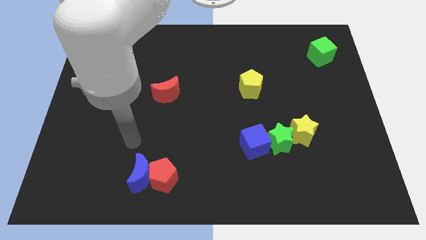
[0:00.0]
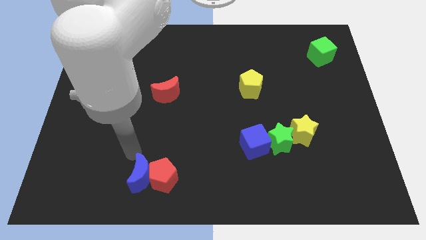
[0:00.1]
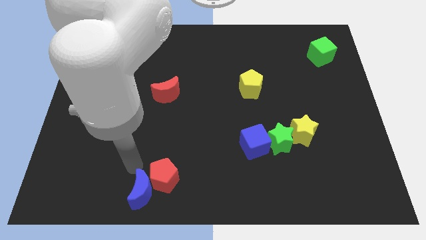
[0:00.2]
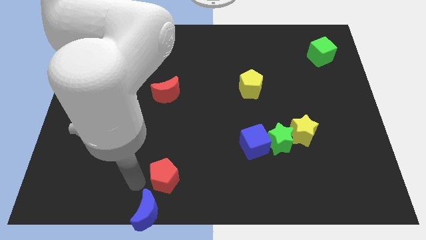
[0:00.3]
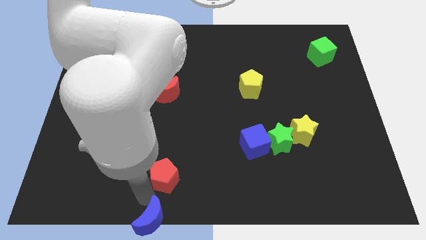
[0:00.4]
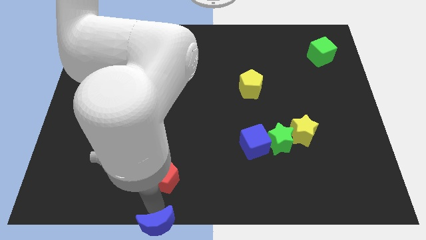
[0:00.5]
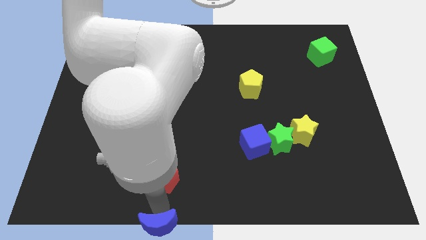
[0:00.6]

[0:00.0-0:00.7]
move the red pentagon away from the blue moon

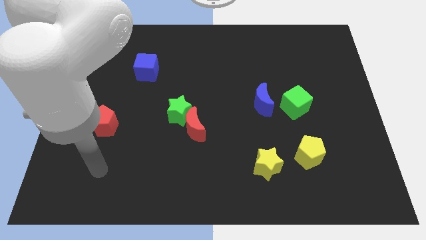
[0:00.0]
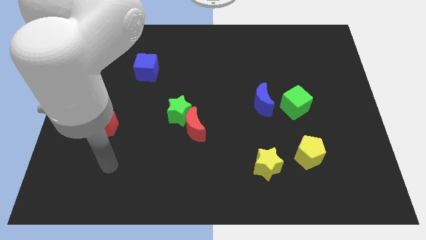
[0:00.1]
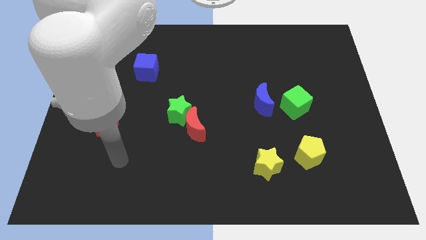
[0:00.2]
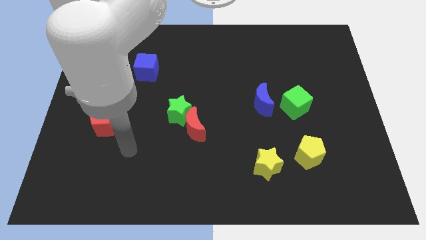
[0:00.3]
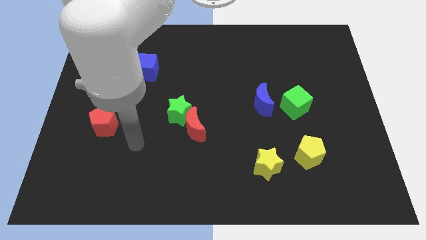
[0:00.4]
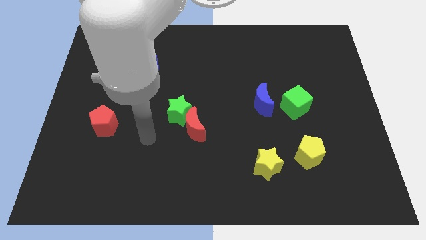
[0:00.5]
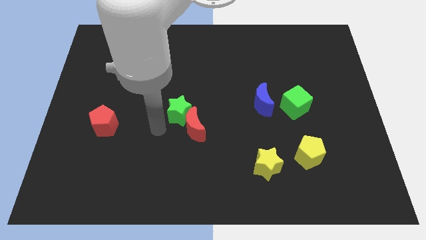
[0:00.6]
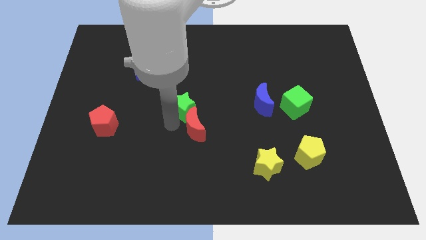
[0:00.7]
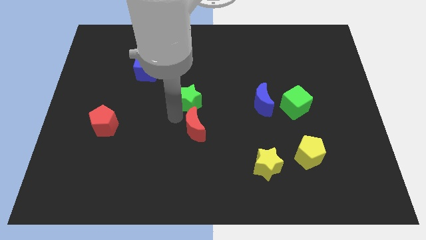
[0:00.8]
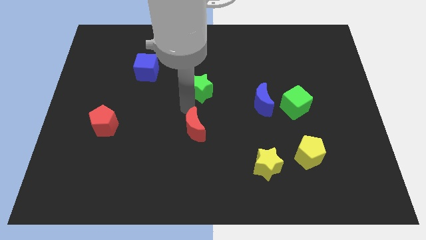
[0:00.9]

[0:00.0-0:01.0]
separate the red moon from the green star

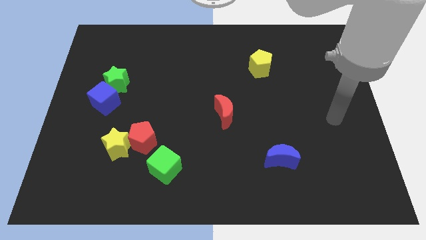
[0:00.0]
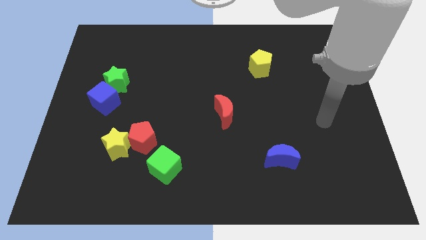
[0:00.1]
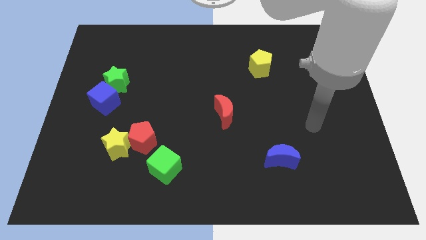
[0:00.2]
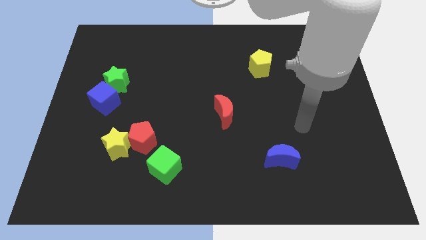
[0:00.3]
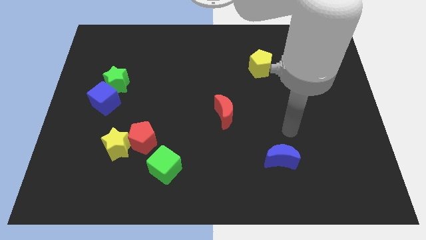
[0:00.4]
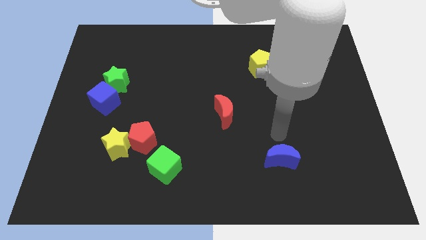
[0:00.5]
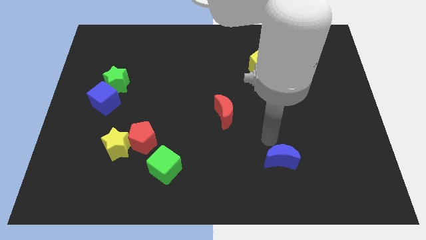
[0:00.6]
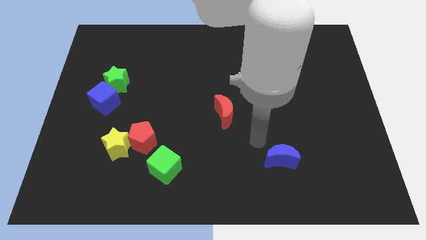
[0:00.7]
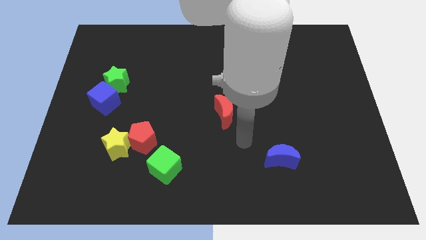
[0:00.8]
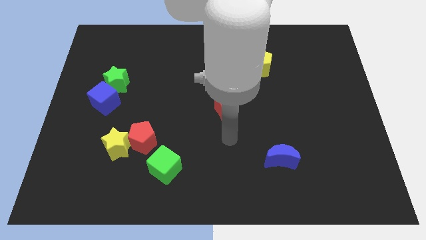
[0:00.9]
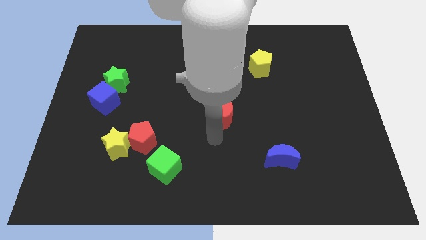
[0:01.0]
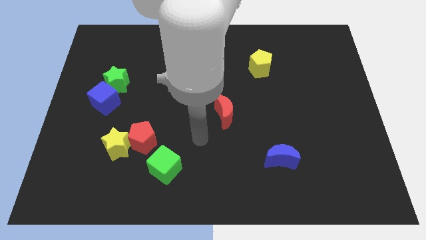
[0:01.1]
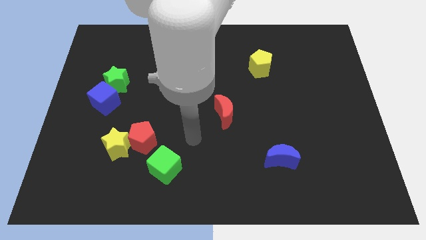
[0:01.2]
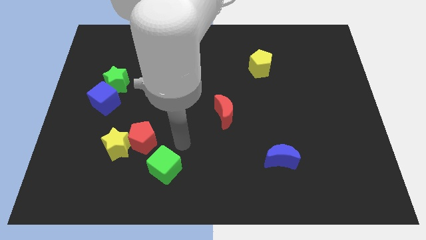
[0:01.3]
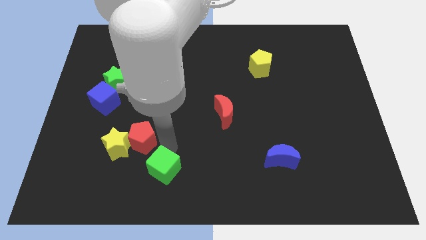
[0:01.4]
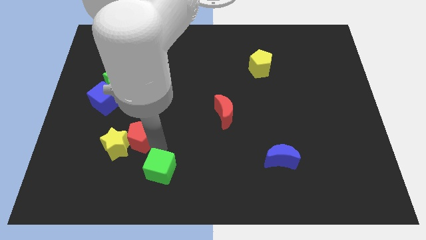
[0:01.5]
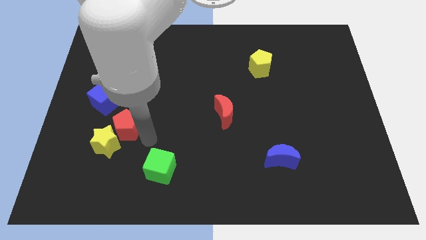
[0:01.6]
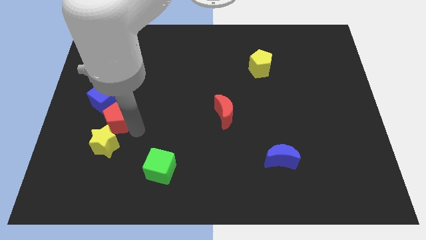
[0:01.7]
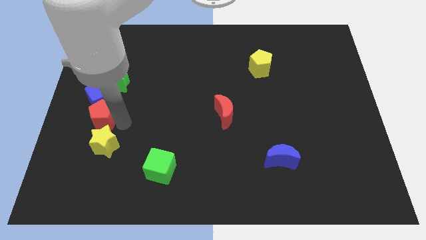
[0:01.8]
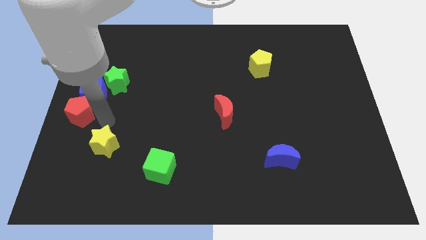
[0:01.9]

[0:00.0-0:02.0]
pull the yellow star apart from the red pentagon

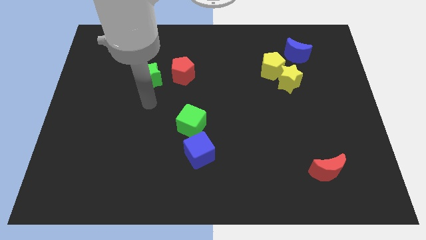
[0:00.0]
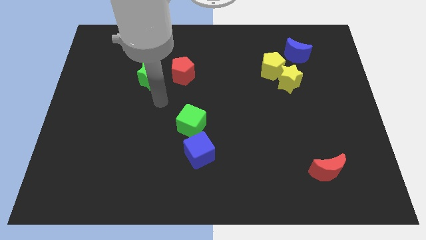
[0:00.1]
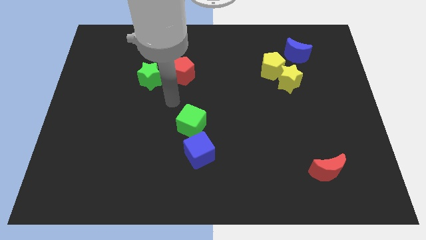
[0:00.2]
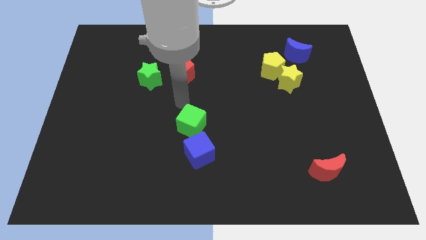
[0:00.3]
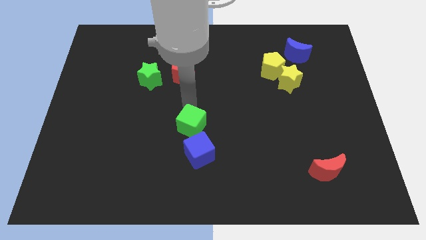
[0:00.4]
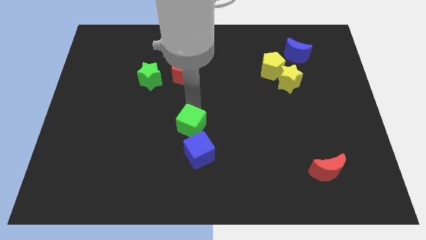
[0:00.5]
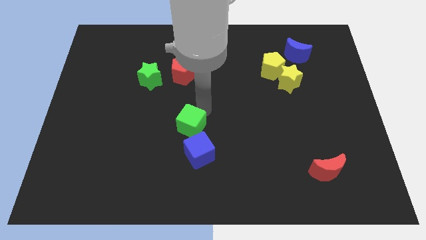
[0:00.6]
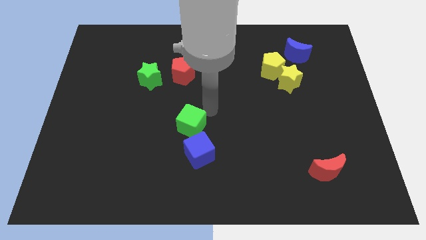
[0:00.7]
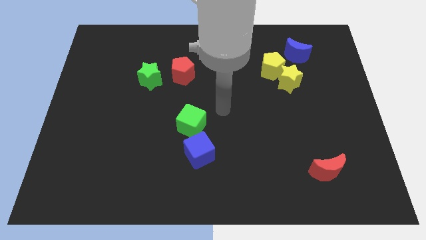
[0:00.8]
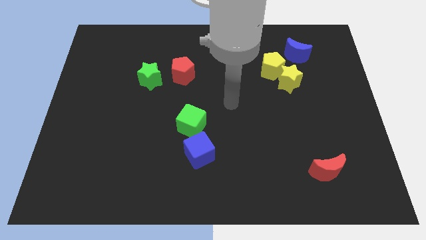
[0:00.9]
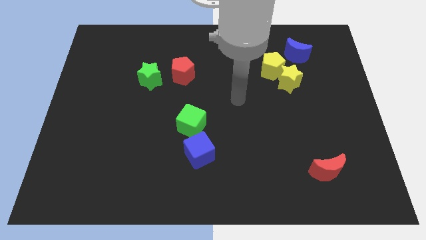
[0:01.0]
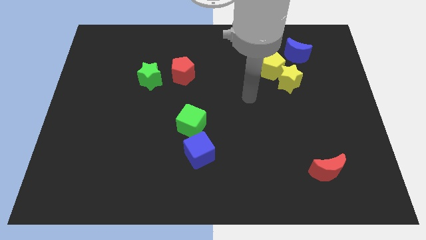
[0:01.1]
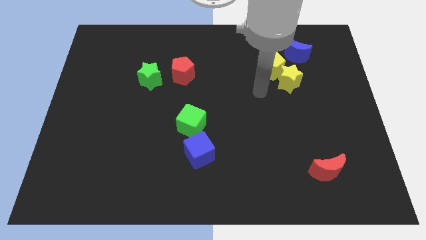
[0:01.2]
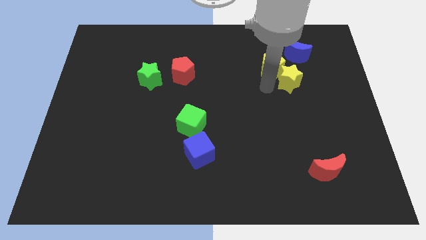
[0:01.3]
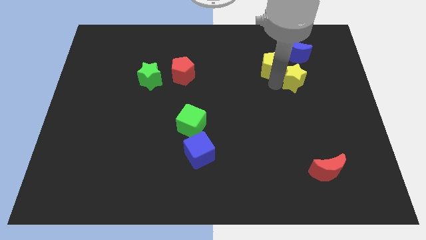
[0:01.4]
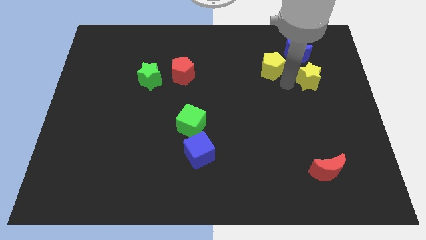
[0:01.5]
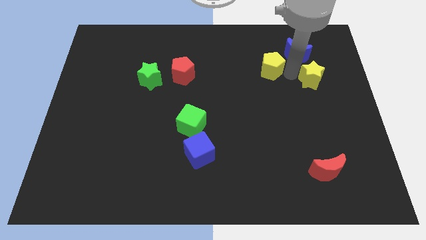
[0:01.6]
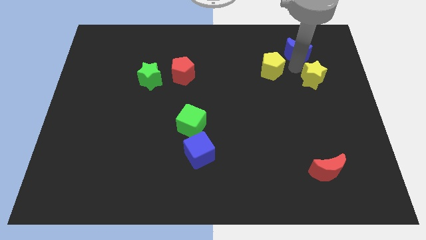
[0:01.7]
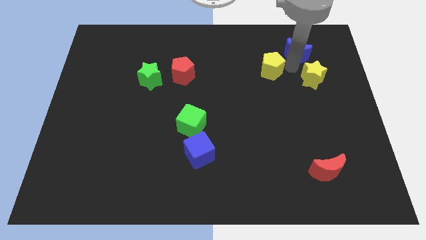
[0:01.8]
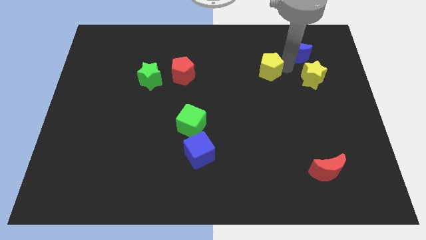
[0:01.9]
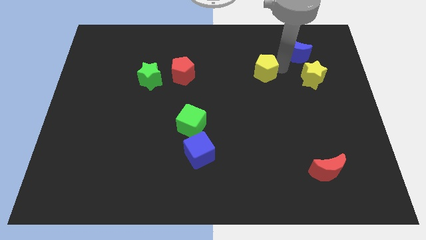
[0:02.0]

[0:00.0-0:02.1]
pull the yellow pentagon apart from the yellow star and blue moon

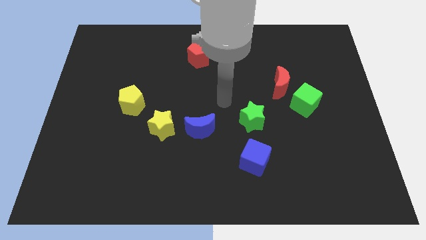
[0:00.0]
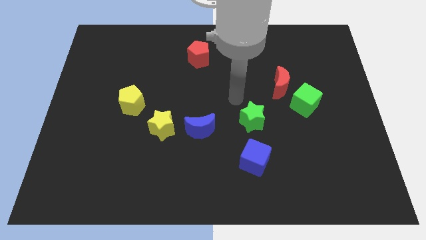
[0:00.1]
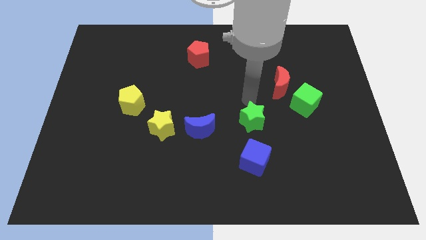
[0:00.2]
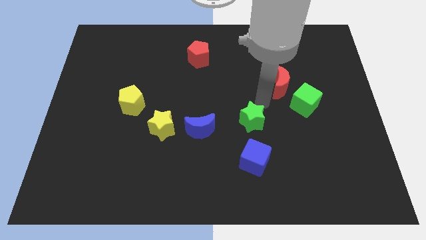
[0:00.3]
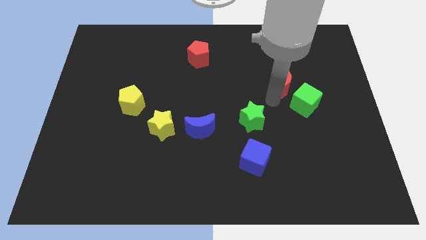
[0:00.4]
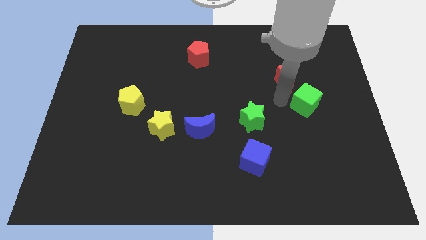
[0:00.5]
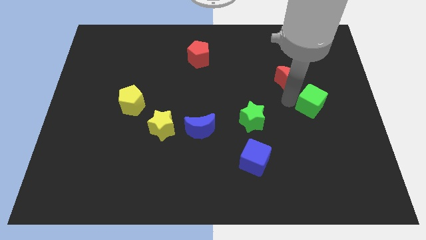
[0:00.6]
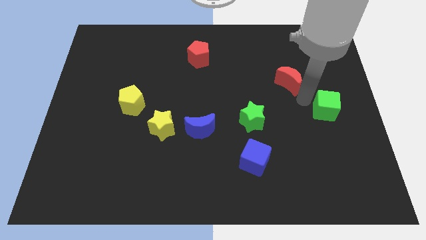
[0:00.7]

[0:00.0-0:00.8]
pull the red moon apart from the green cube

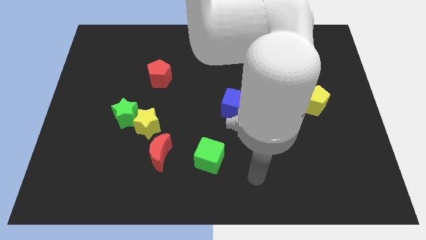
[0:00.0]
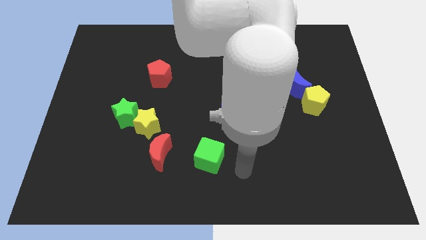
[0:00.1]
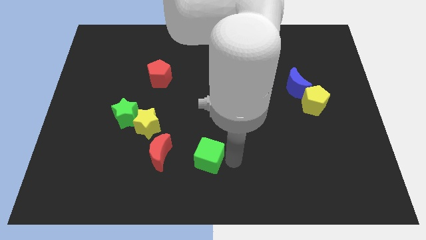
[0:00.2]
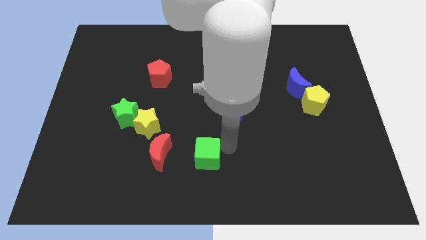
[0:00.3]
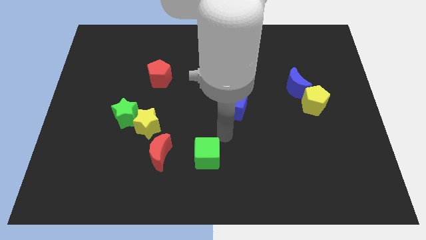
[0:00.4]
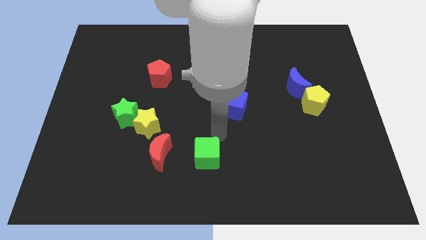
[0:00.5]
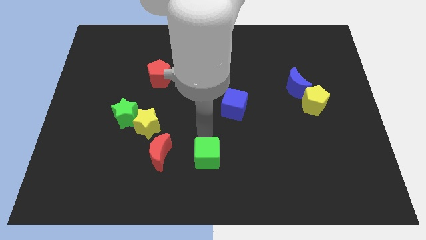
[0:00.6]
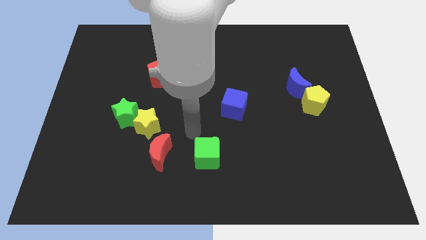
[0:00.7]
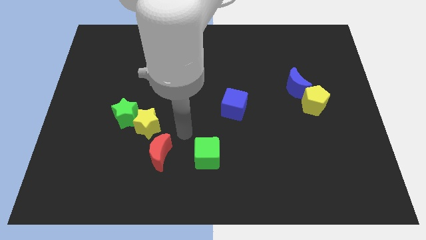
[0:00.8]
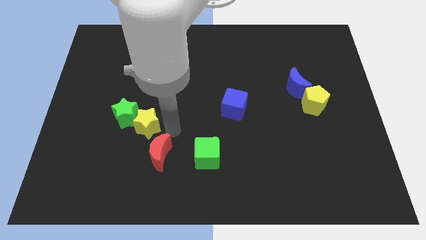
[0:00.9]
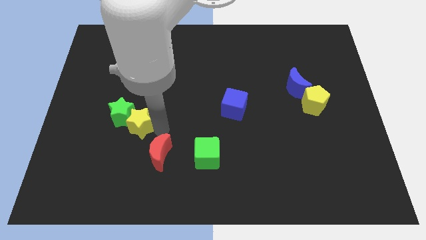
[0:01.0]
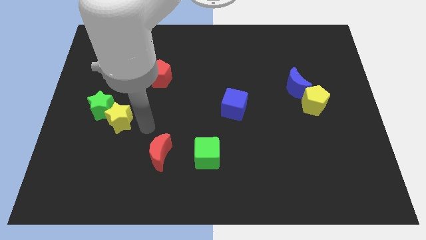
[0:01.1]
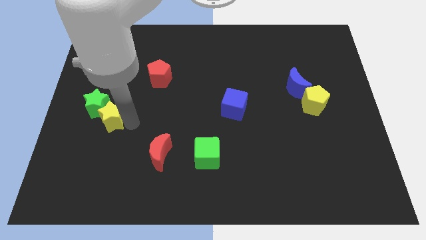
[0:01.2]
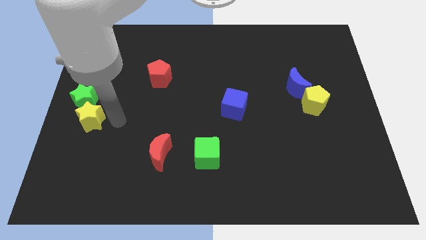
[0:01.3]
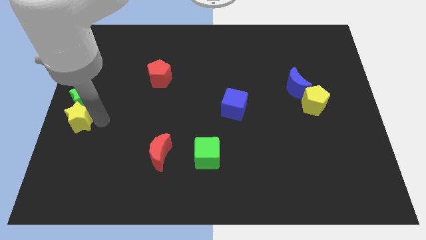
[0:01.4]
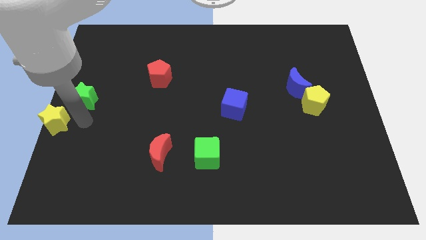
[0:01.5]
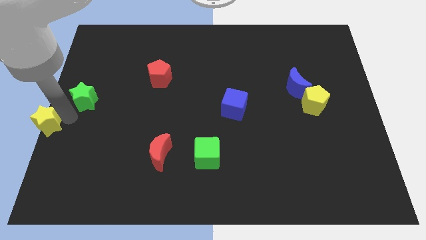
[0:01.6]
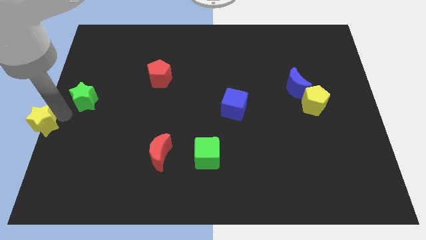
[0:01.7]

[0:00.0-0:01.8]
move the green star away from the yellow star

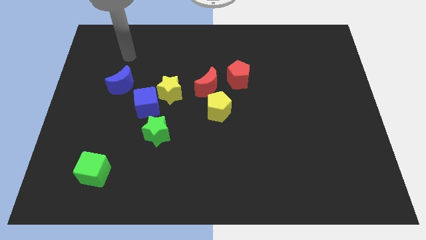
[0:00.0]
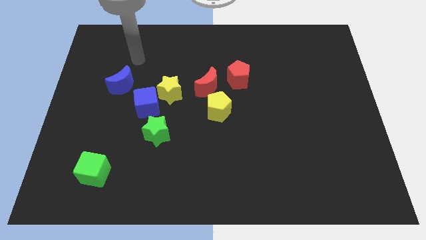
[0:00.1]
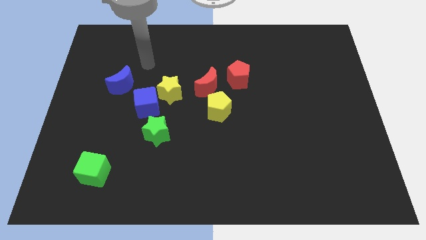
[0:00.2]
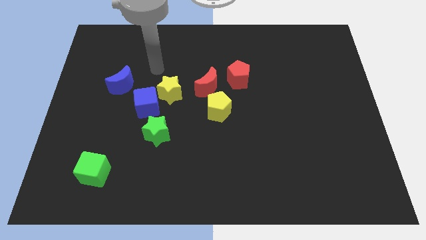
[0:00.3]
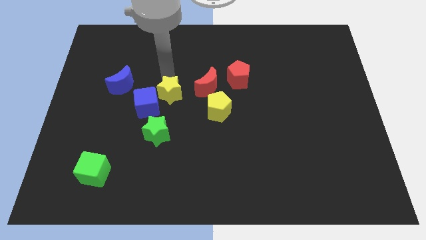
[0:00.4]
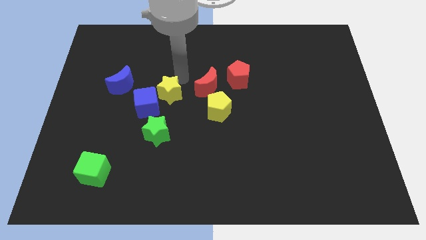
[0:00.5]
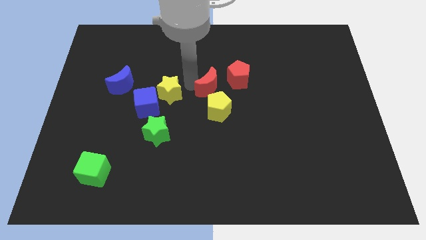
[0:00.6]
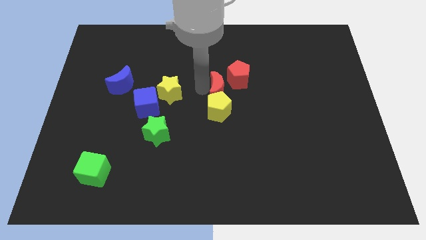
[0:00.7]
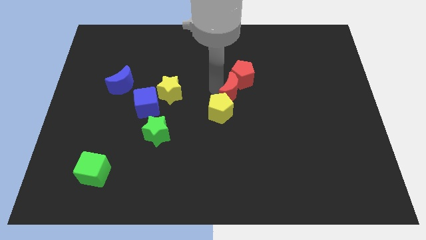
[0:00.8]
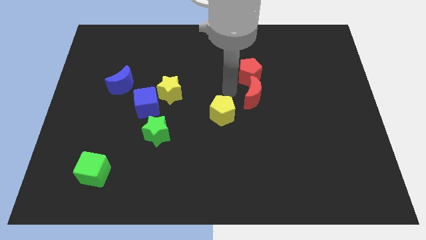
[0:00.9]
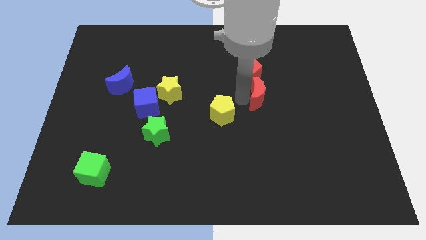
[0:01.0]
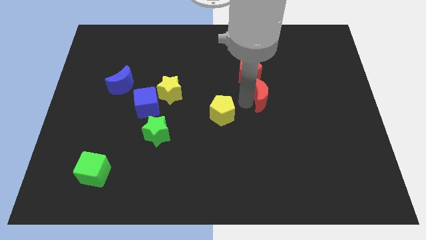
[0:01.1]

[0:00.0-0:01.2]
move the yellow pentagon away from the red moon
